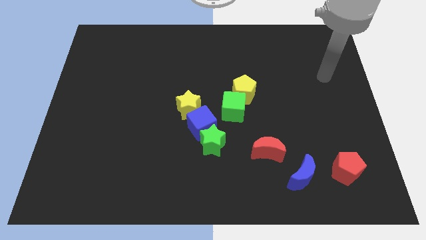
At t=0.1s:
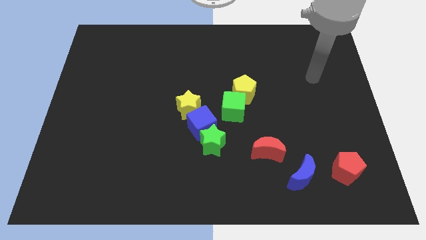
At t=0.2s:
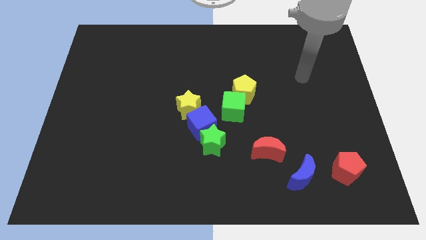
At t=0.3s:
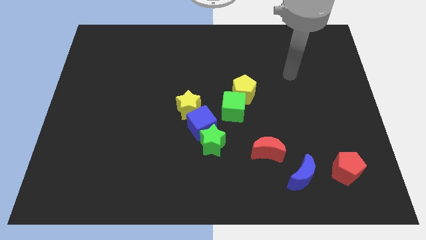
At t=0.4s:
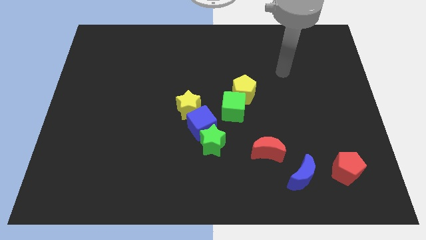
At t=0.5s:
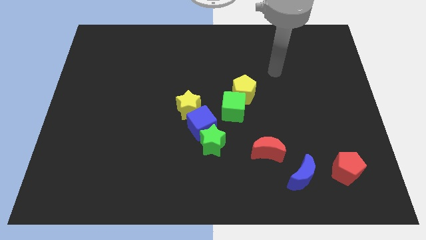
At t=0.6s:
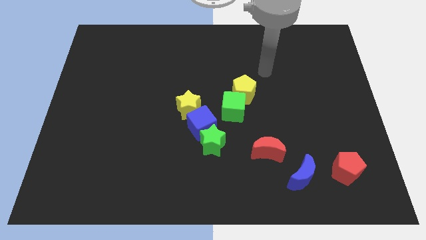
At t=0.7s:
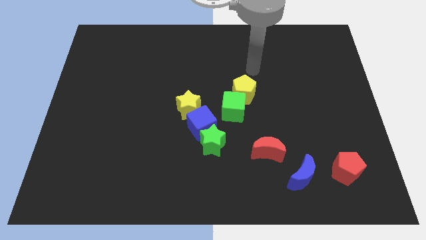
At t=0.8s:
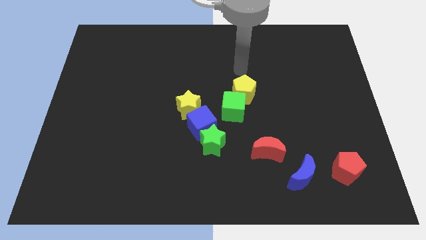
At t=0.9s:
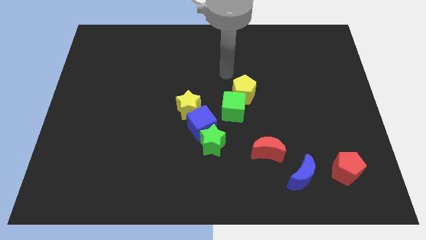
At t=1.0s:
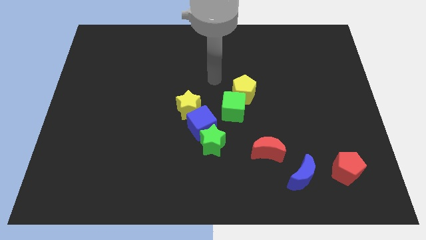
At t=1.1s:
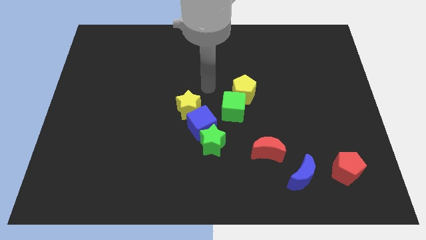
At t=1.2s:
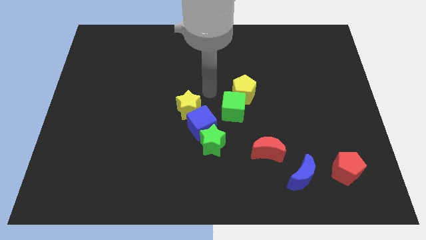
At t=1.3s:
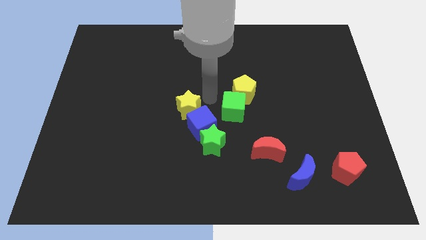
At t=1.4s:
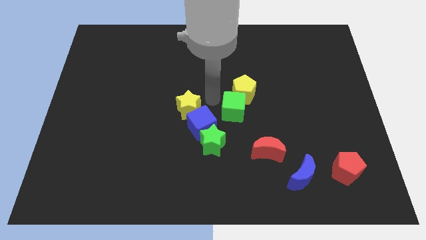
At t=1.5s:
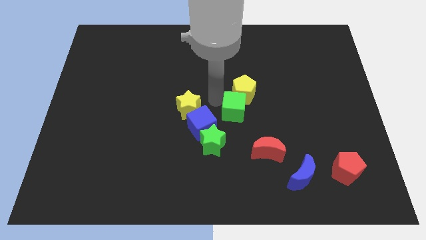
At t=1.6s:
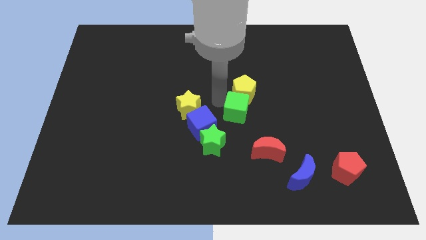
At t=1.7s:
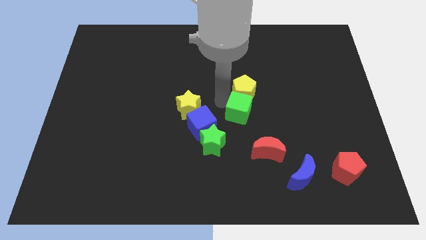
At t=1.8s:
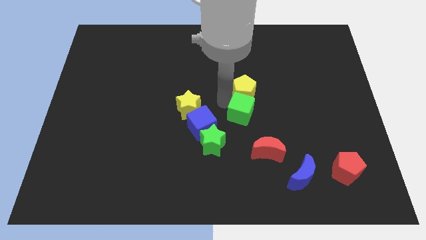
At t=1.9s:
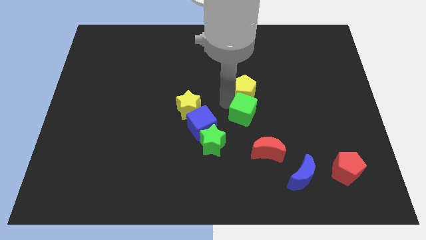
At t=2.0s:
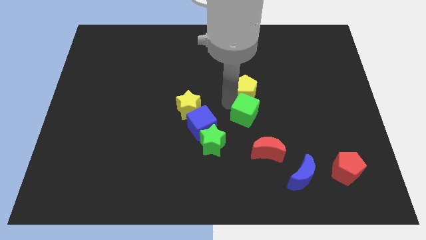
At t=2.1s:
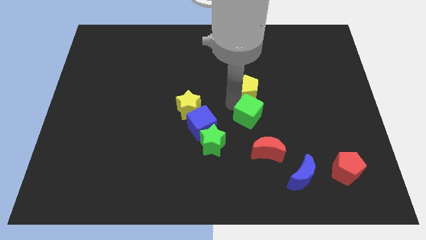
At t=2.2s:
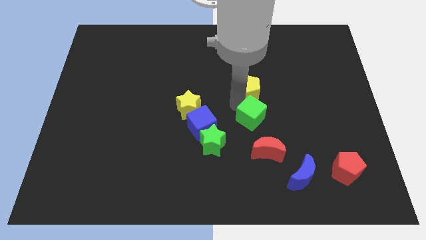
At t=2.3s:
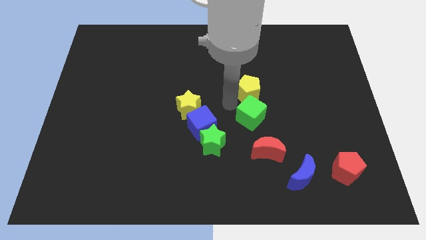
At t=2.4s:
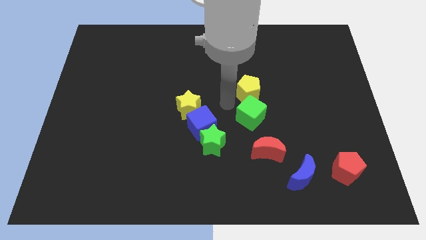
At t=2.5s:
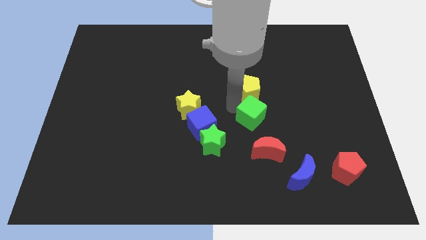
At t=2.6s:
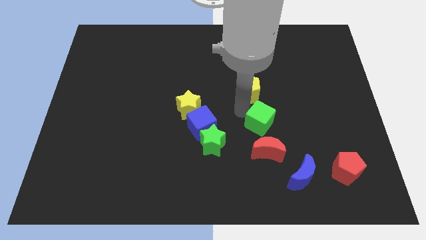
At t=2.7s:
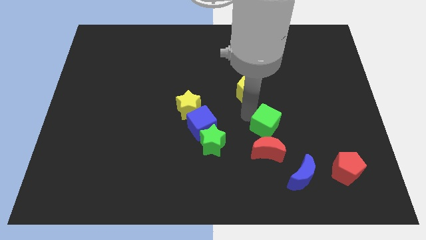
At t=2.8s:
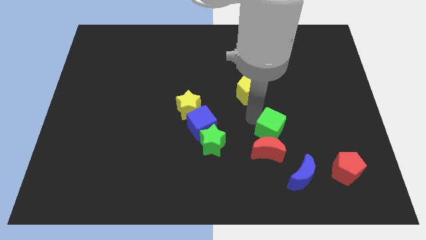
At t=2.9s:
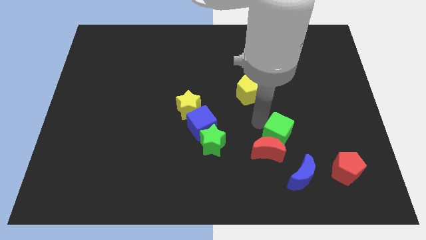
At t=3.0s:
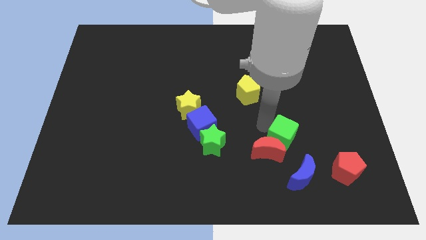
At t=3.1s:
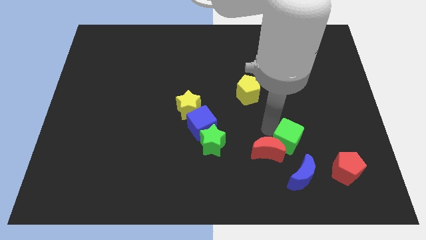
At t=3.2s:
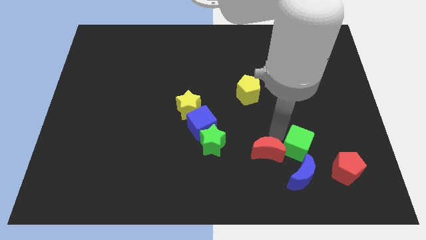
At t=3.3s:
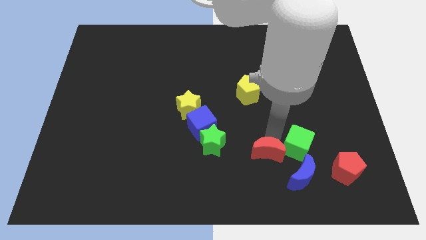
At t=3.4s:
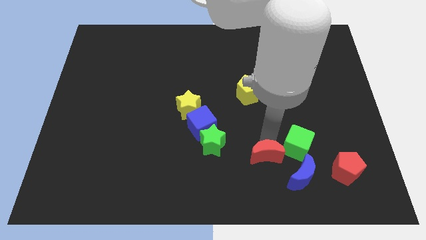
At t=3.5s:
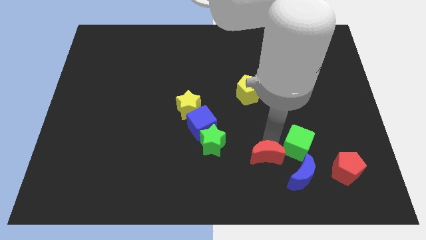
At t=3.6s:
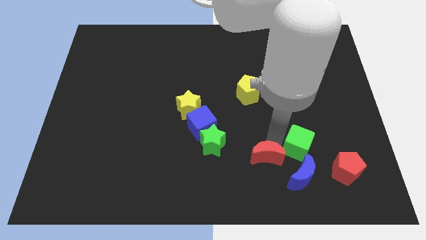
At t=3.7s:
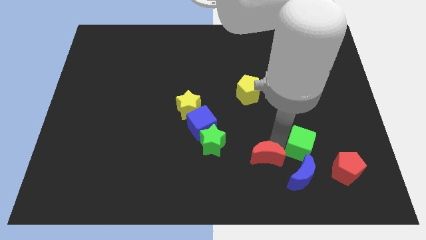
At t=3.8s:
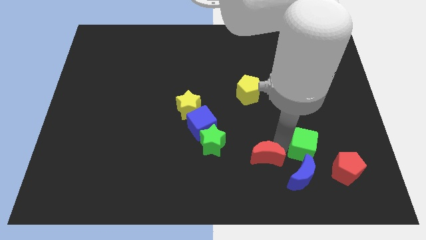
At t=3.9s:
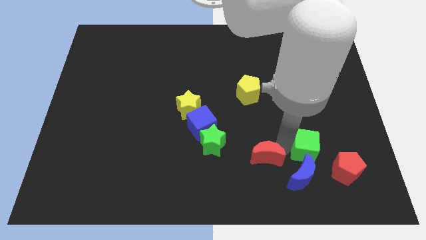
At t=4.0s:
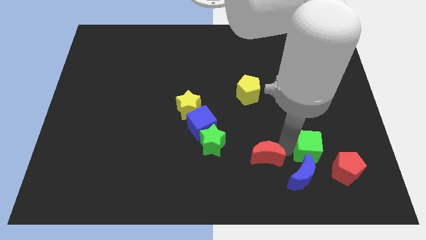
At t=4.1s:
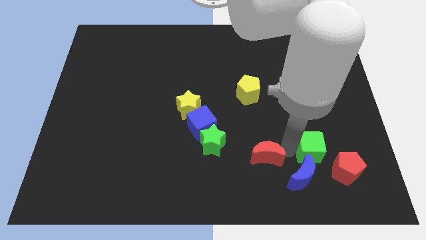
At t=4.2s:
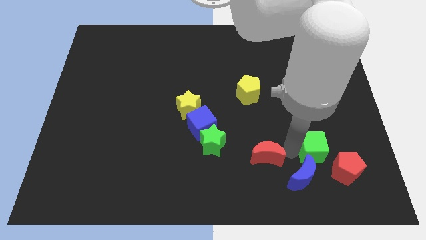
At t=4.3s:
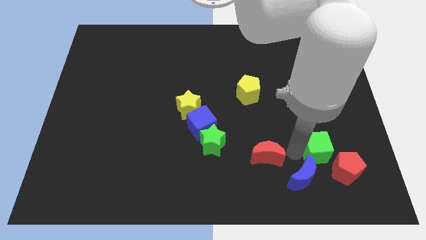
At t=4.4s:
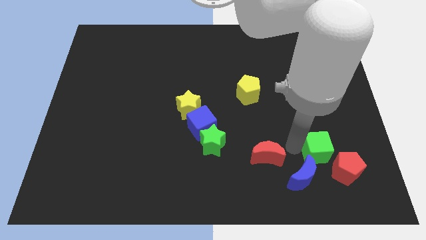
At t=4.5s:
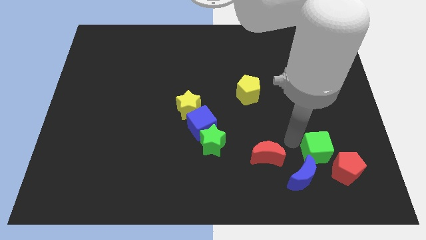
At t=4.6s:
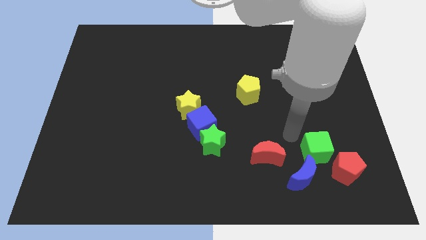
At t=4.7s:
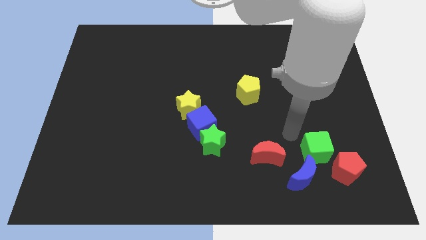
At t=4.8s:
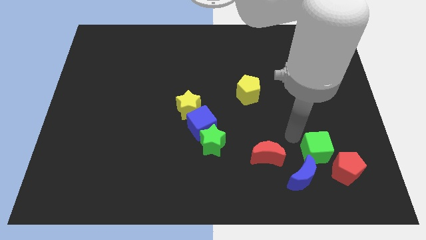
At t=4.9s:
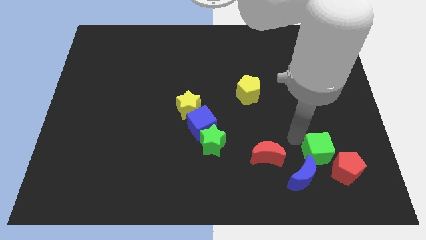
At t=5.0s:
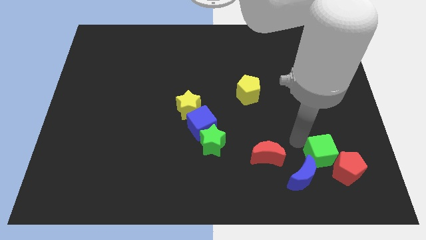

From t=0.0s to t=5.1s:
move the green cube to the red pentagon

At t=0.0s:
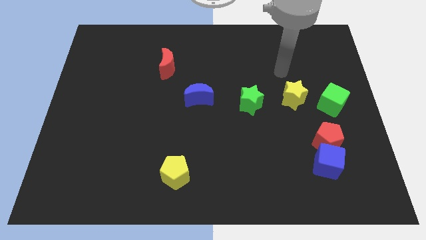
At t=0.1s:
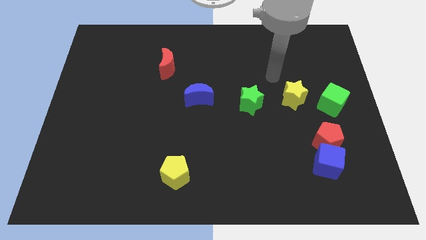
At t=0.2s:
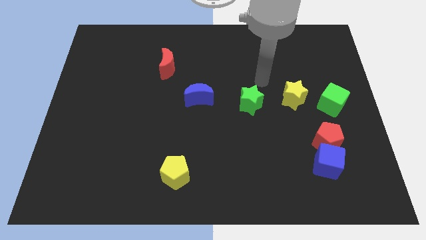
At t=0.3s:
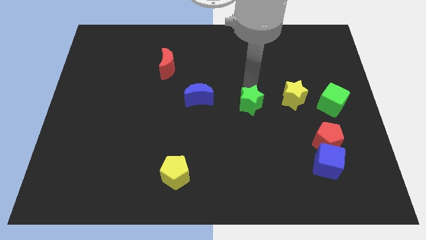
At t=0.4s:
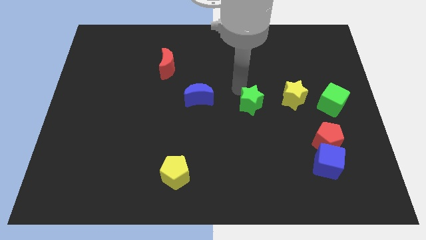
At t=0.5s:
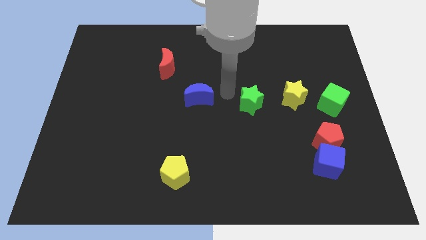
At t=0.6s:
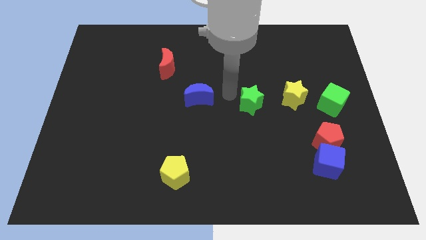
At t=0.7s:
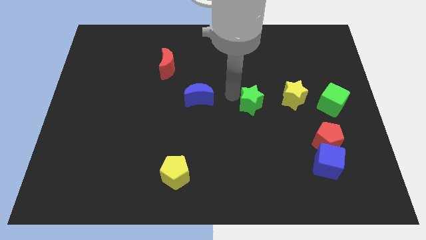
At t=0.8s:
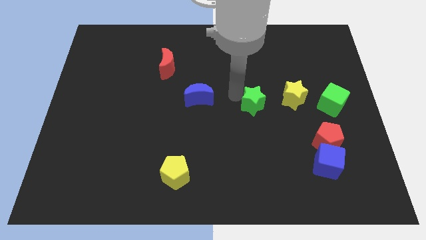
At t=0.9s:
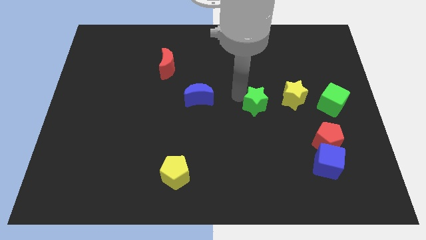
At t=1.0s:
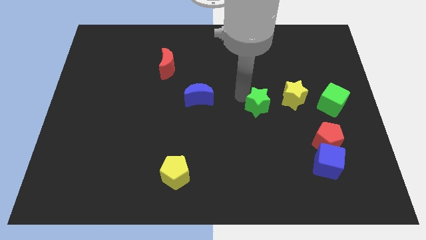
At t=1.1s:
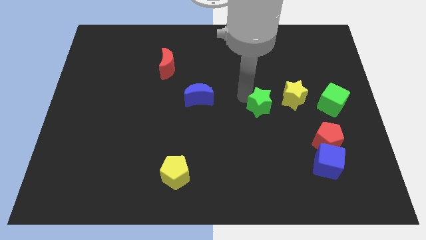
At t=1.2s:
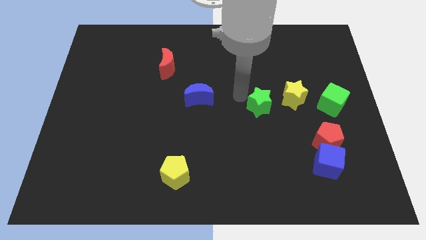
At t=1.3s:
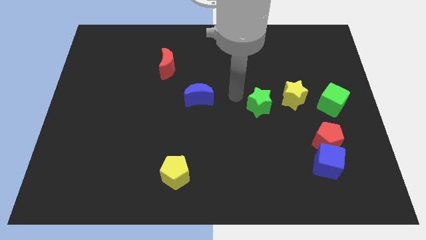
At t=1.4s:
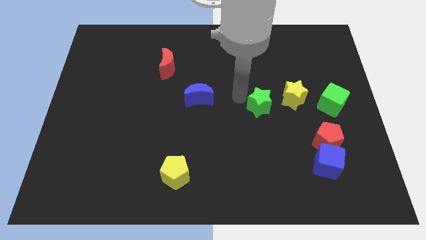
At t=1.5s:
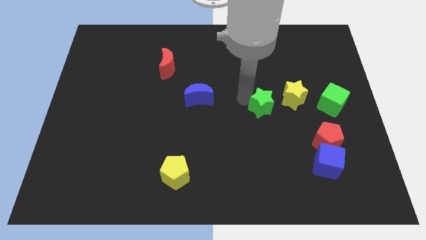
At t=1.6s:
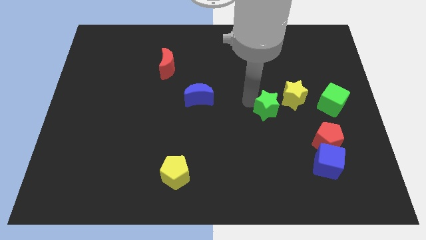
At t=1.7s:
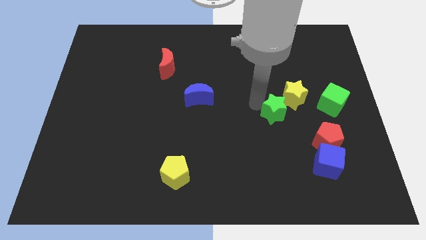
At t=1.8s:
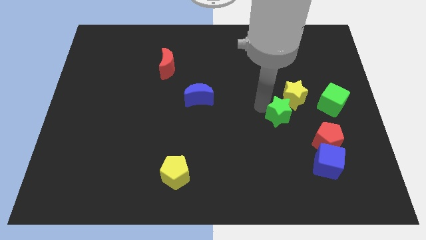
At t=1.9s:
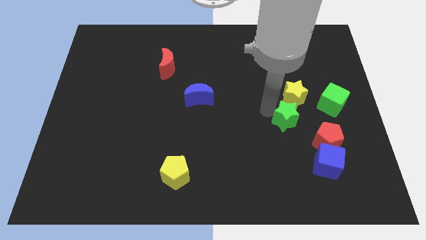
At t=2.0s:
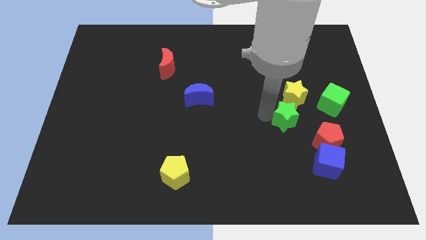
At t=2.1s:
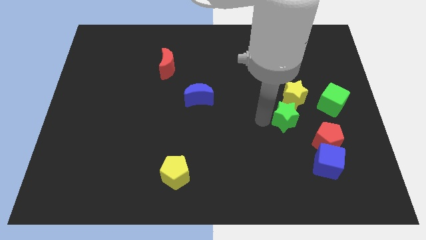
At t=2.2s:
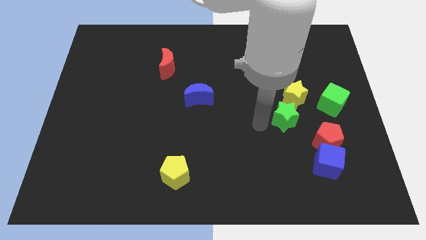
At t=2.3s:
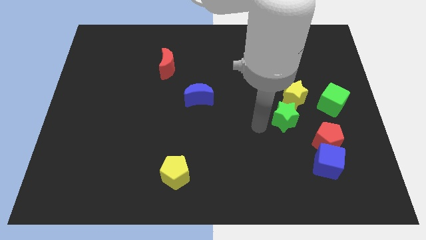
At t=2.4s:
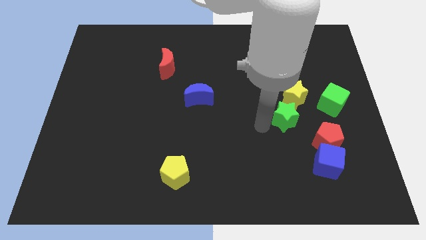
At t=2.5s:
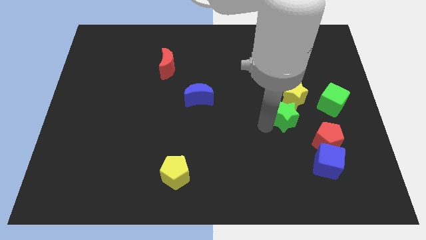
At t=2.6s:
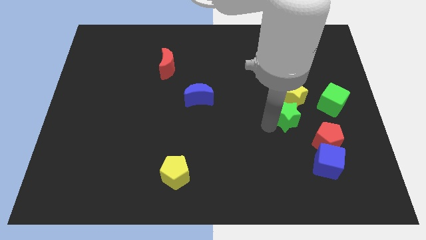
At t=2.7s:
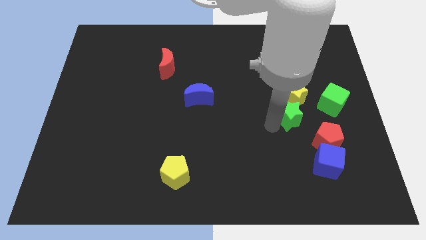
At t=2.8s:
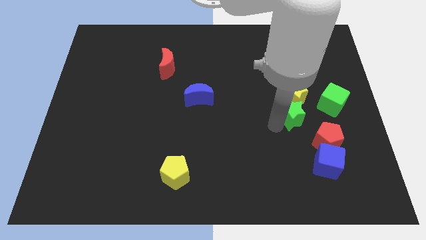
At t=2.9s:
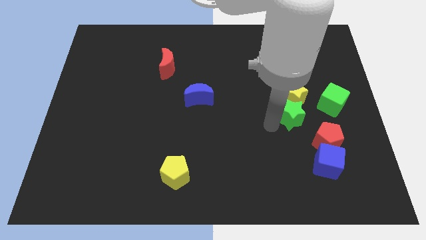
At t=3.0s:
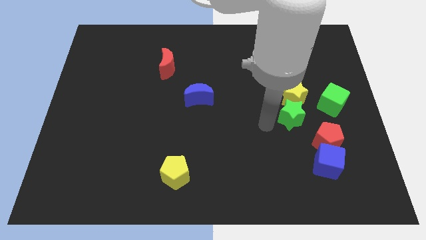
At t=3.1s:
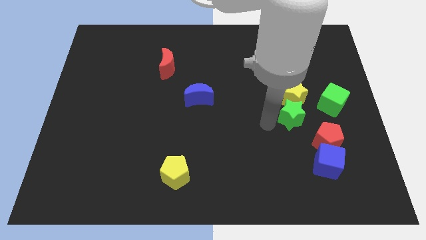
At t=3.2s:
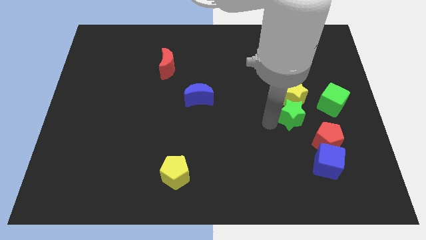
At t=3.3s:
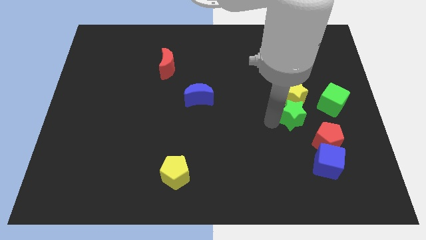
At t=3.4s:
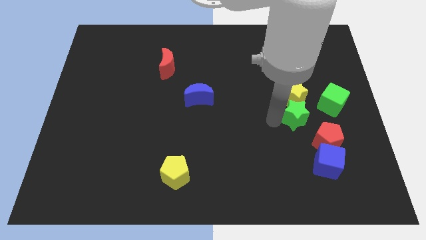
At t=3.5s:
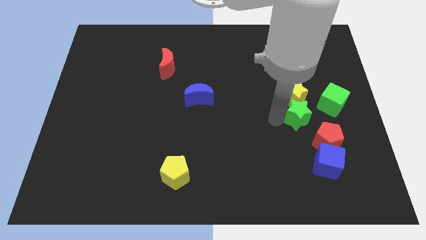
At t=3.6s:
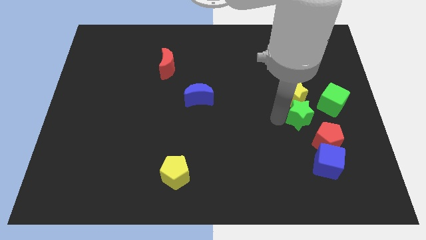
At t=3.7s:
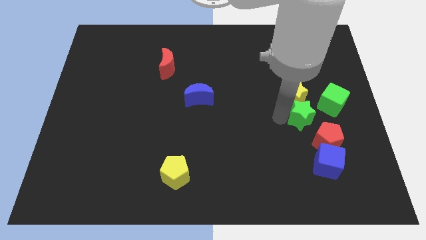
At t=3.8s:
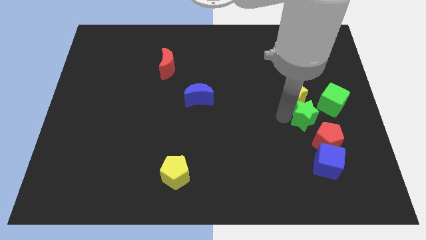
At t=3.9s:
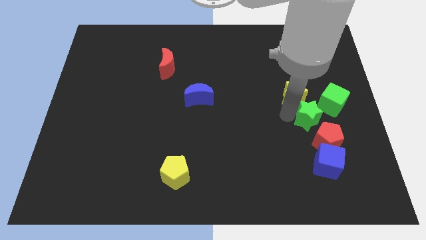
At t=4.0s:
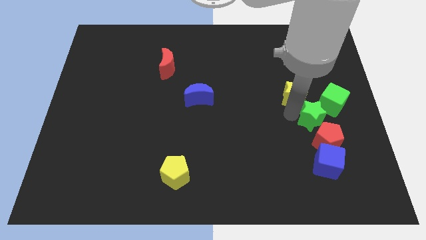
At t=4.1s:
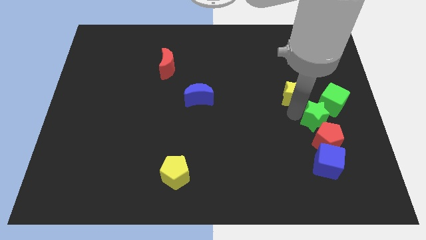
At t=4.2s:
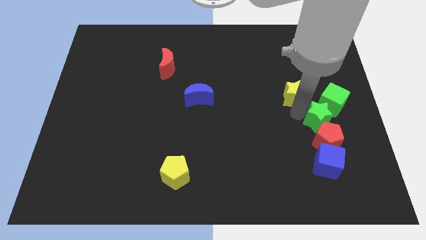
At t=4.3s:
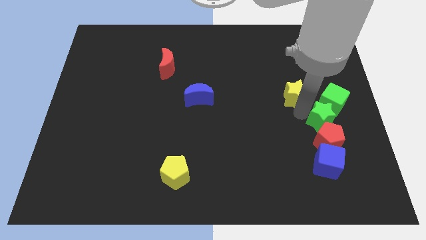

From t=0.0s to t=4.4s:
push the green star to the green cube
